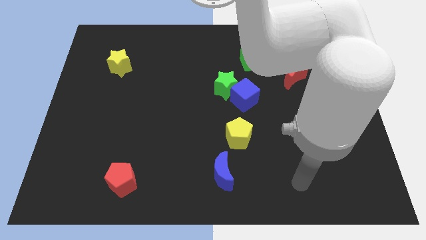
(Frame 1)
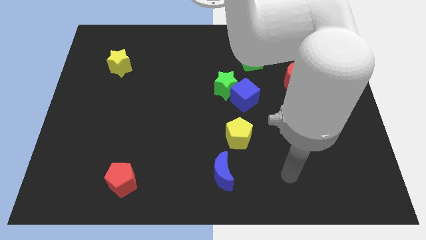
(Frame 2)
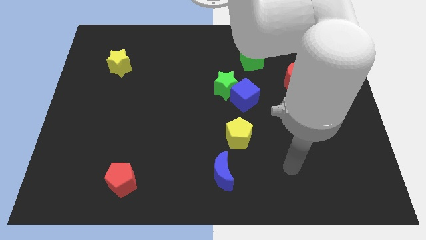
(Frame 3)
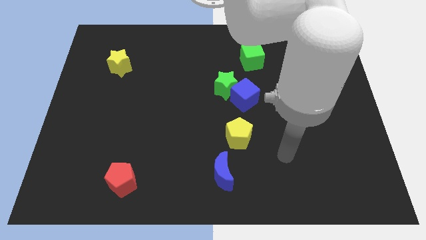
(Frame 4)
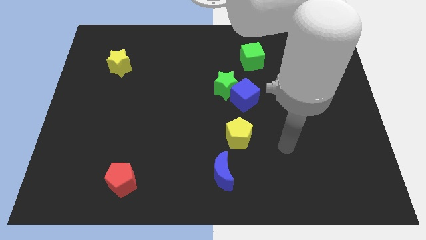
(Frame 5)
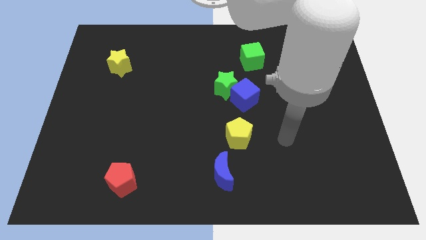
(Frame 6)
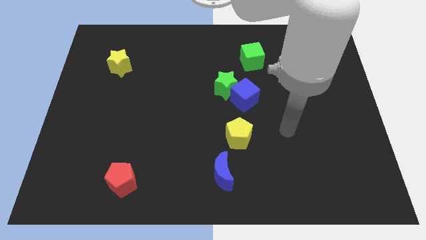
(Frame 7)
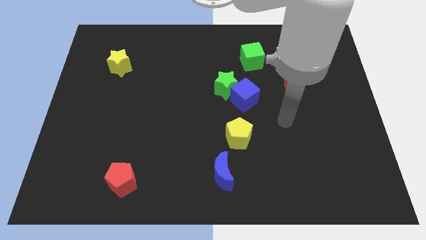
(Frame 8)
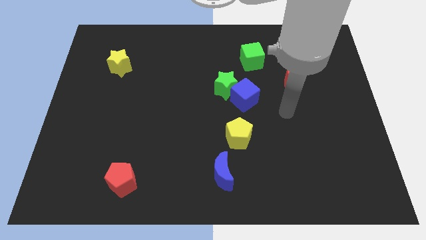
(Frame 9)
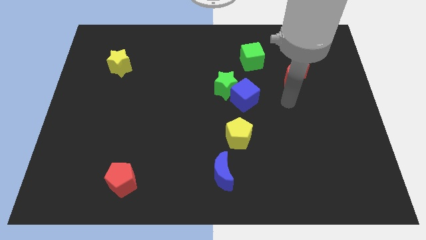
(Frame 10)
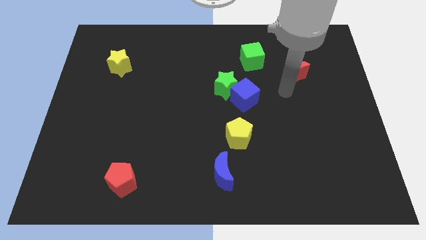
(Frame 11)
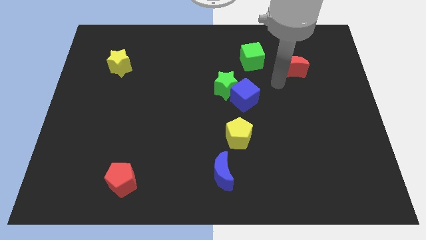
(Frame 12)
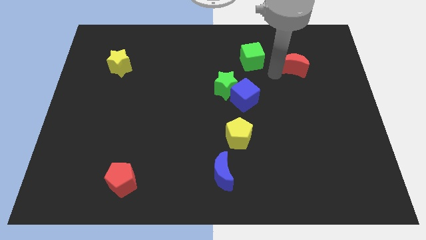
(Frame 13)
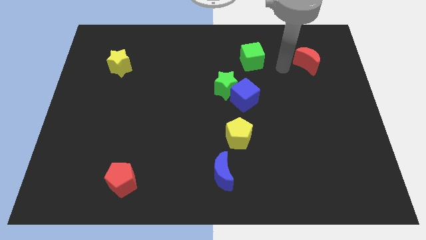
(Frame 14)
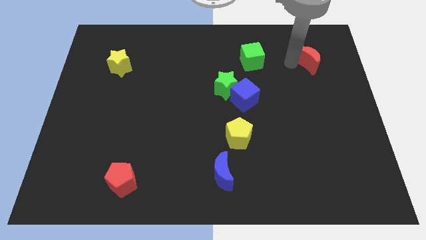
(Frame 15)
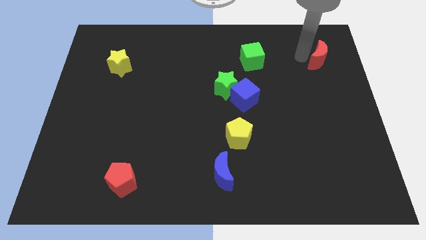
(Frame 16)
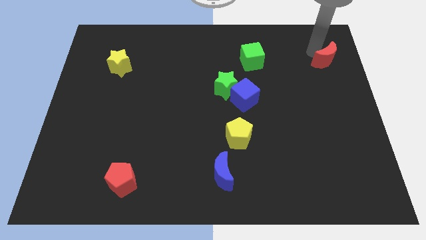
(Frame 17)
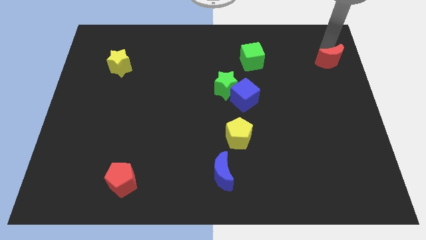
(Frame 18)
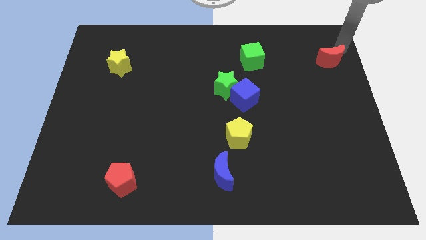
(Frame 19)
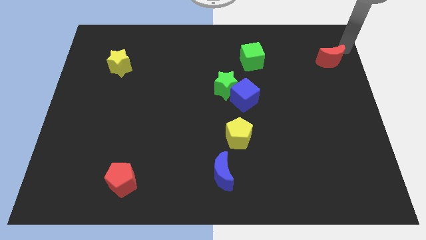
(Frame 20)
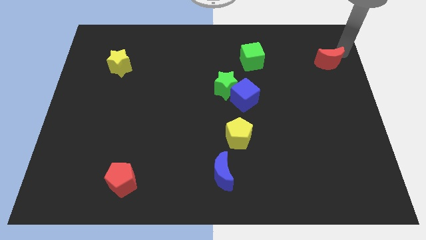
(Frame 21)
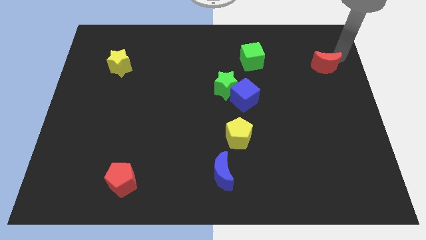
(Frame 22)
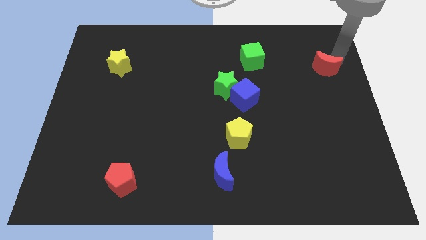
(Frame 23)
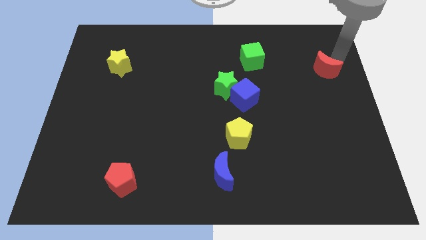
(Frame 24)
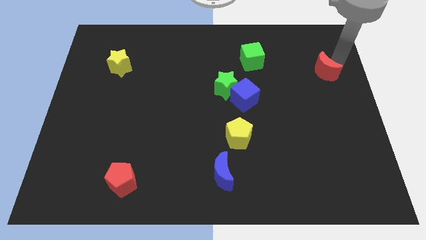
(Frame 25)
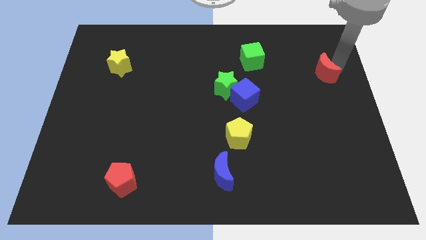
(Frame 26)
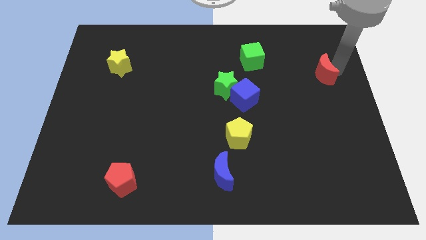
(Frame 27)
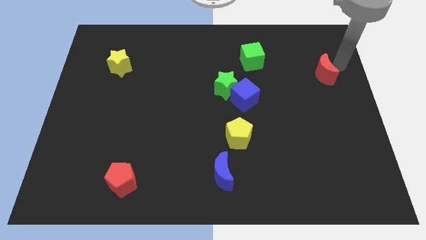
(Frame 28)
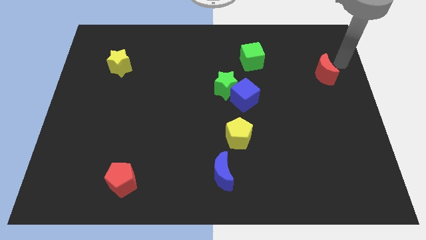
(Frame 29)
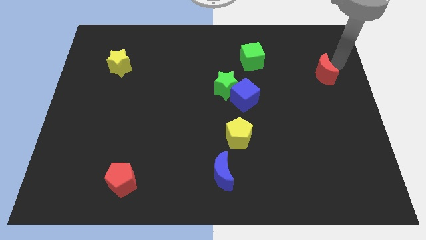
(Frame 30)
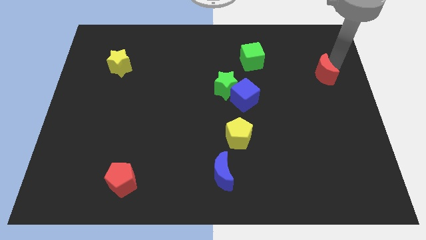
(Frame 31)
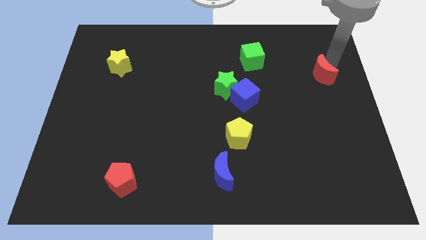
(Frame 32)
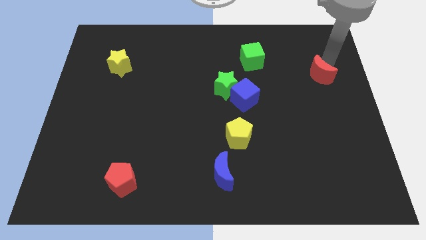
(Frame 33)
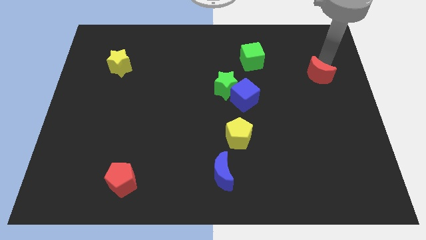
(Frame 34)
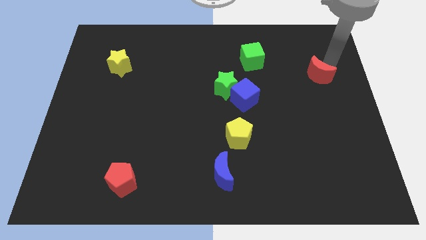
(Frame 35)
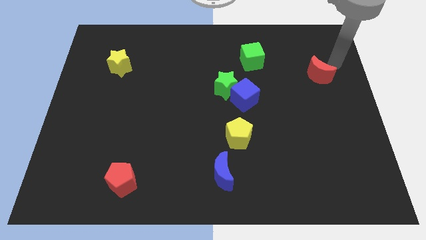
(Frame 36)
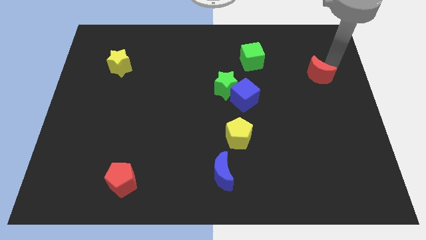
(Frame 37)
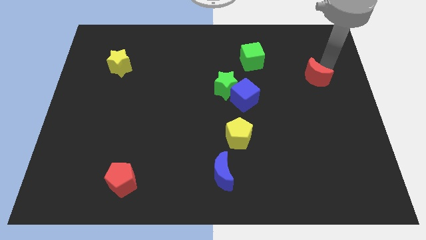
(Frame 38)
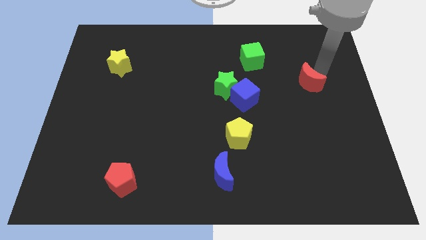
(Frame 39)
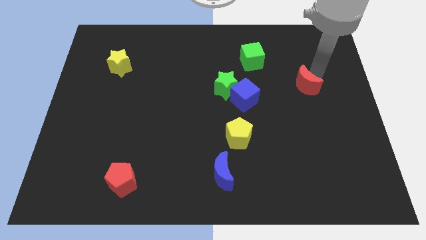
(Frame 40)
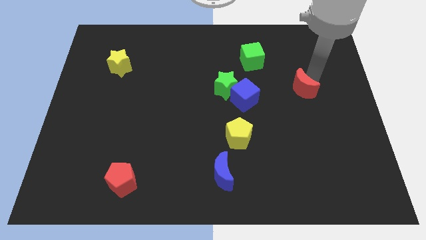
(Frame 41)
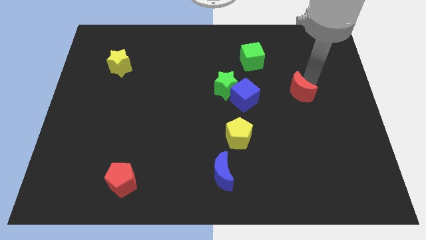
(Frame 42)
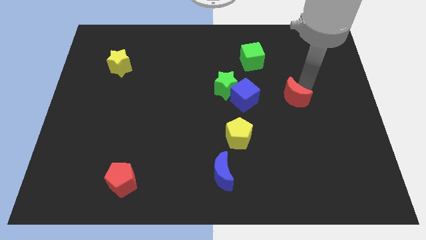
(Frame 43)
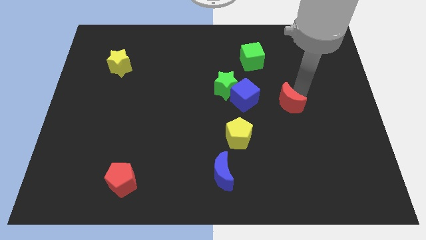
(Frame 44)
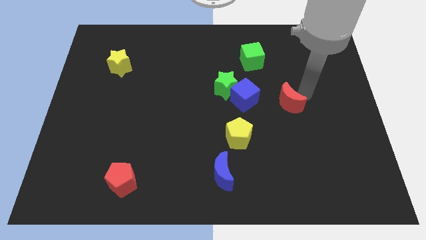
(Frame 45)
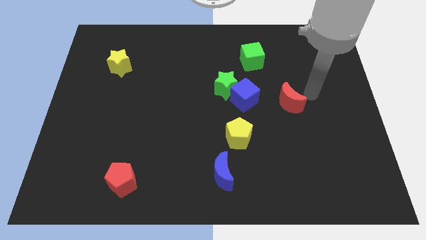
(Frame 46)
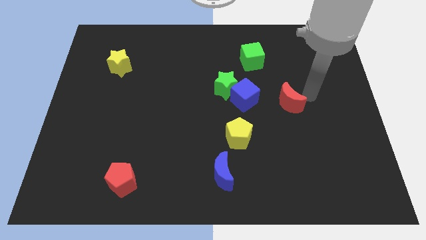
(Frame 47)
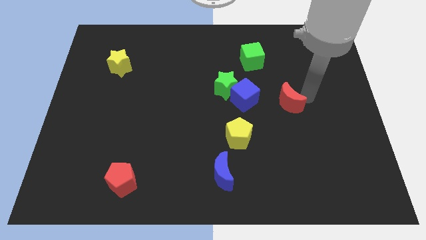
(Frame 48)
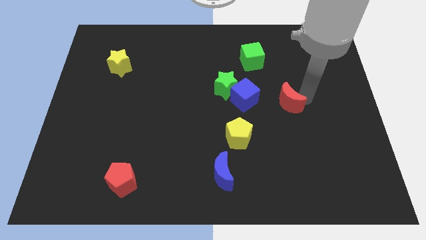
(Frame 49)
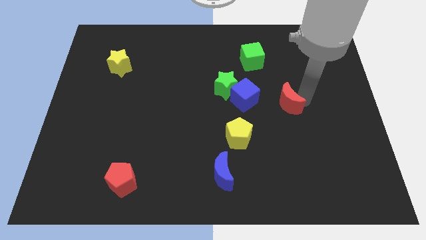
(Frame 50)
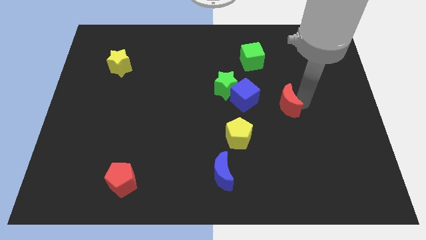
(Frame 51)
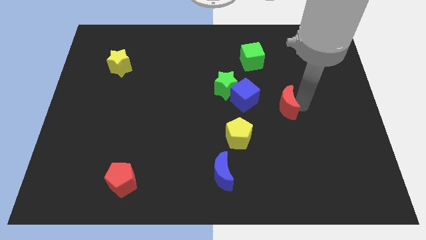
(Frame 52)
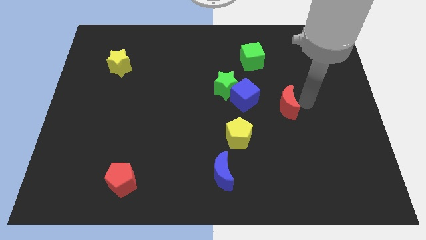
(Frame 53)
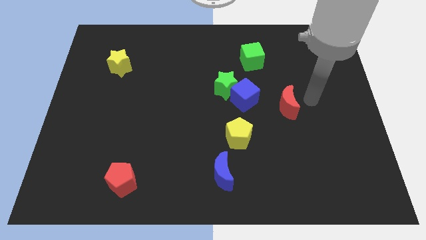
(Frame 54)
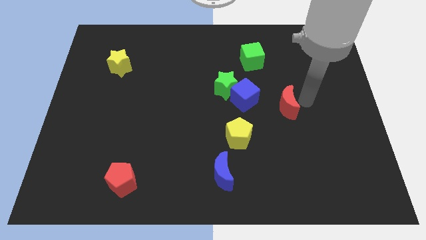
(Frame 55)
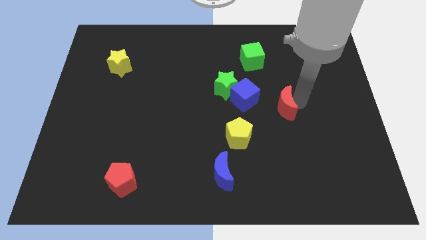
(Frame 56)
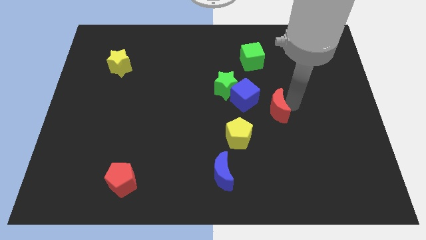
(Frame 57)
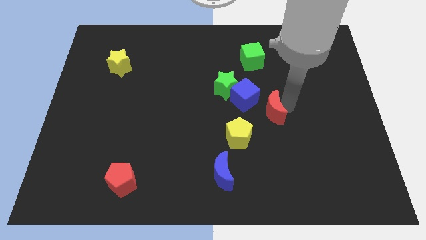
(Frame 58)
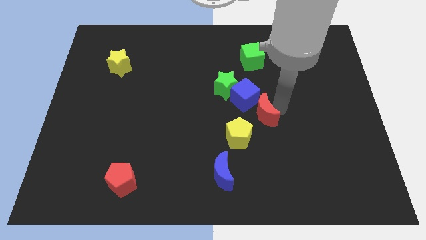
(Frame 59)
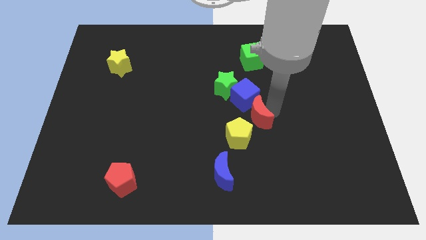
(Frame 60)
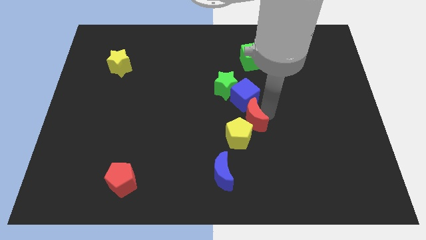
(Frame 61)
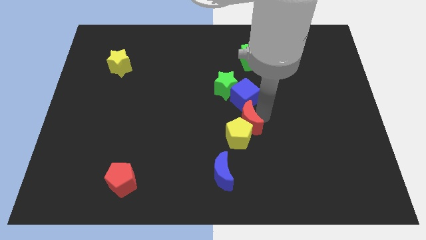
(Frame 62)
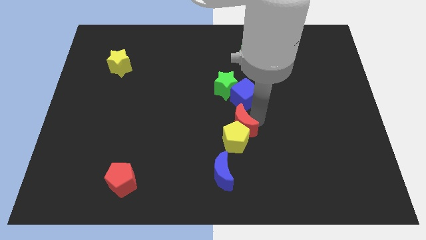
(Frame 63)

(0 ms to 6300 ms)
slide the red moon down and to the left

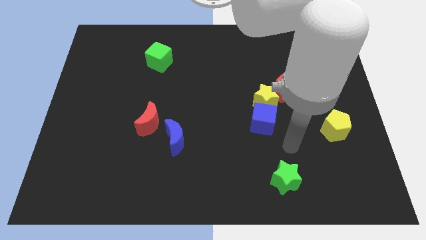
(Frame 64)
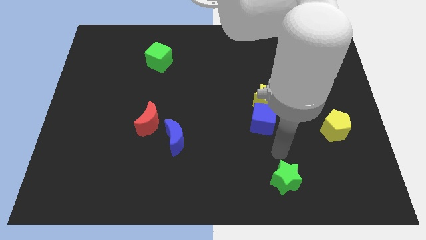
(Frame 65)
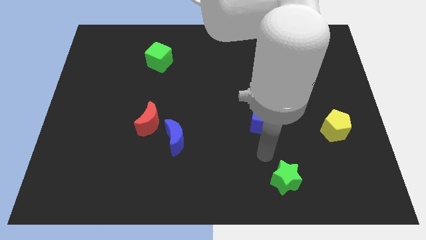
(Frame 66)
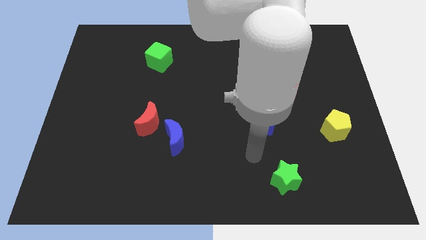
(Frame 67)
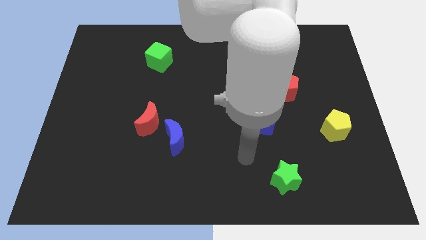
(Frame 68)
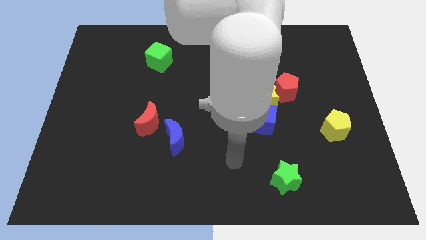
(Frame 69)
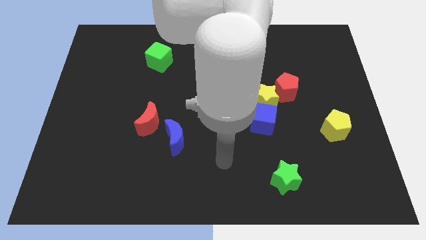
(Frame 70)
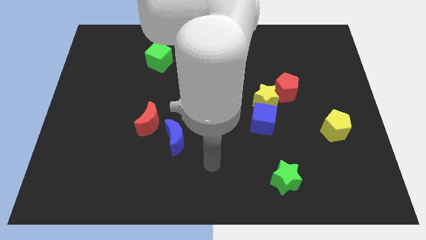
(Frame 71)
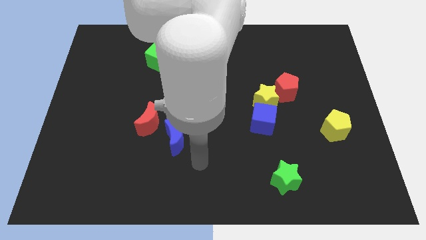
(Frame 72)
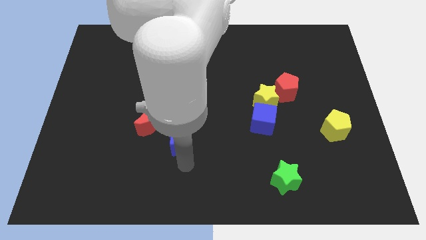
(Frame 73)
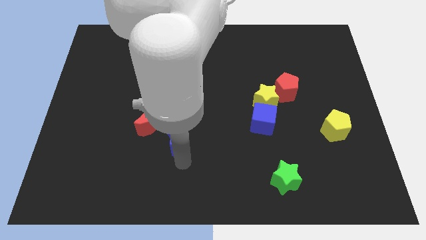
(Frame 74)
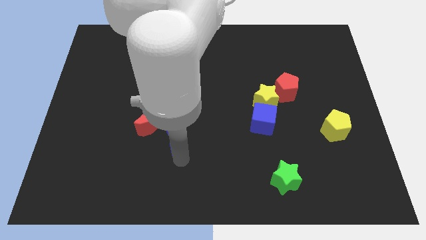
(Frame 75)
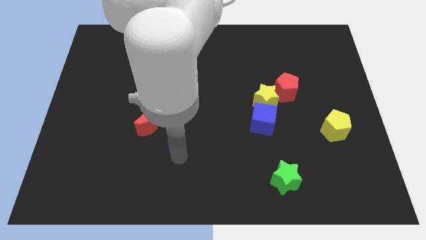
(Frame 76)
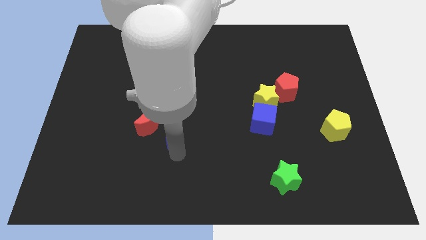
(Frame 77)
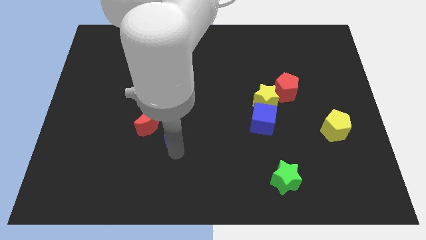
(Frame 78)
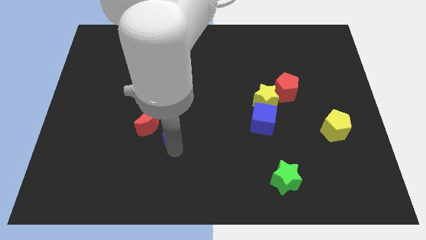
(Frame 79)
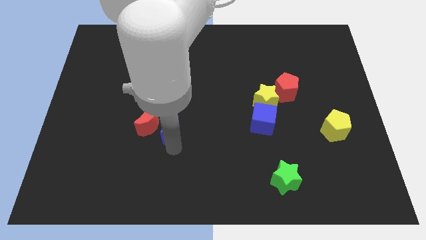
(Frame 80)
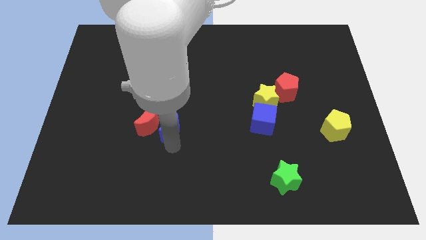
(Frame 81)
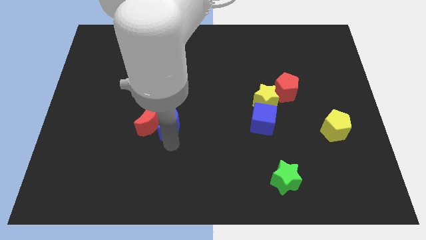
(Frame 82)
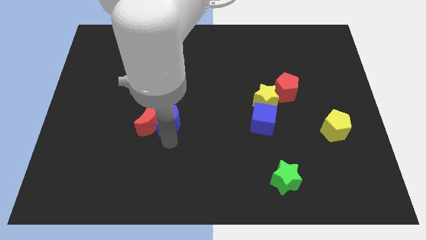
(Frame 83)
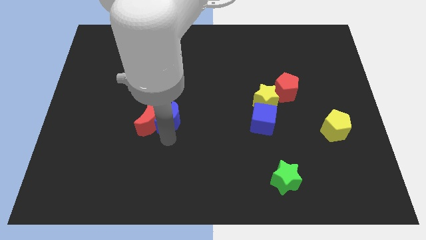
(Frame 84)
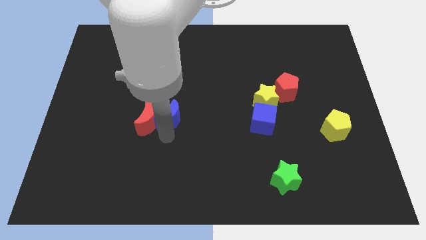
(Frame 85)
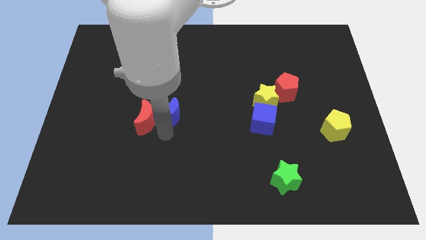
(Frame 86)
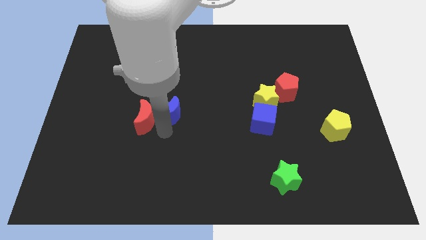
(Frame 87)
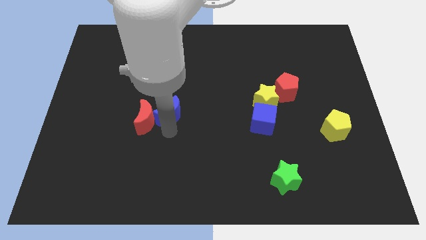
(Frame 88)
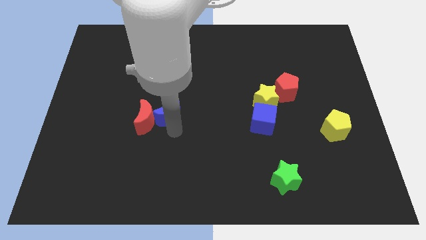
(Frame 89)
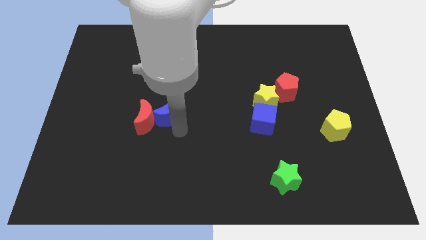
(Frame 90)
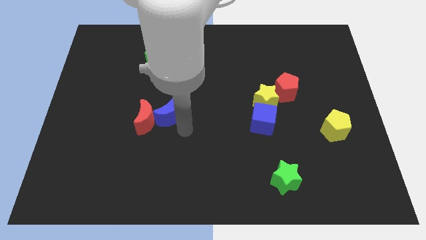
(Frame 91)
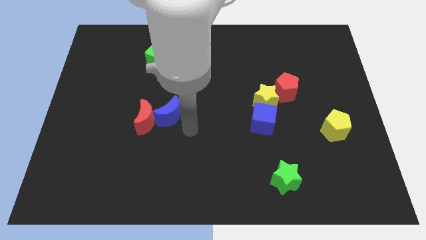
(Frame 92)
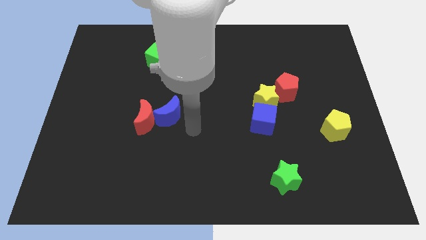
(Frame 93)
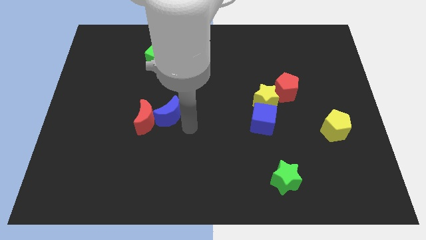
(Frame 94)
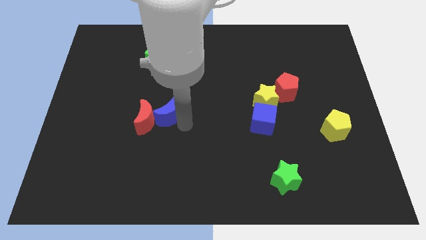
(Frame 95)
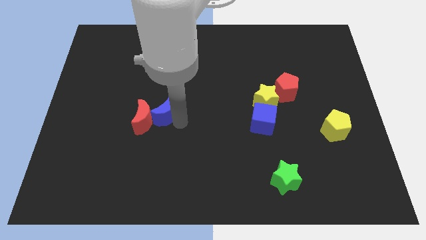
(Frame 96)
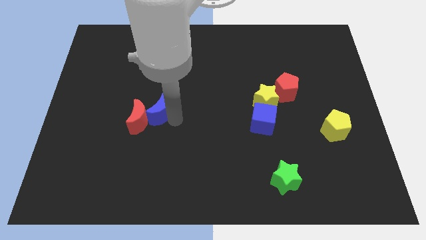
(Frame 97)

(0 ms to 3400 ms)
slightly slide the blue moon upwards and left
